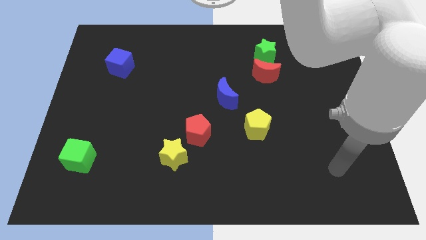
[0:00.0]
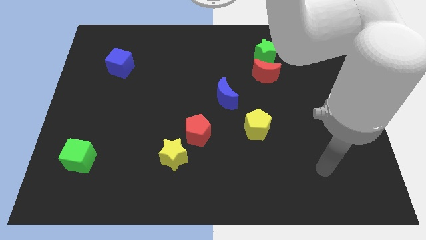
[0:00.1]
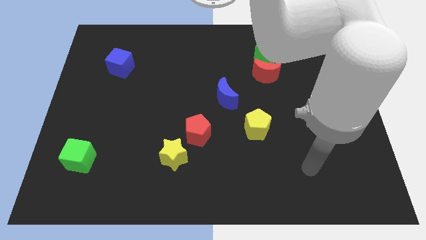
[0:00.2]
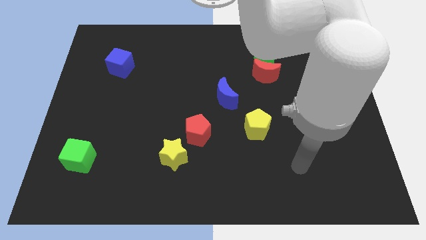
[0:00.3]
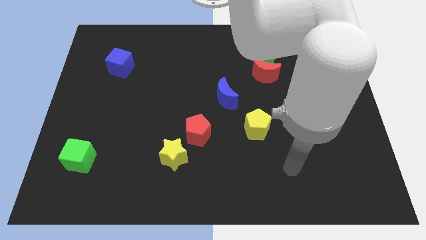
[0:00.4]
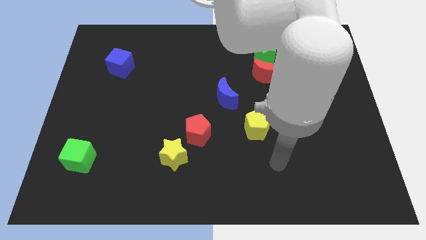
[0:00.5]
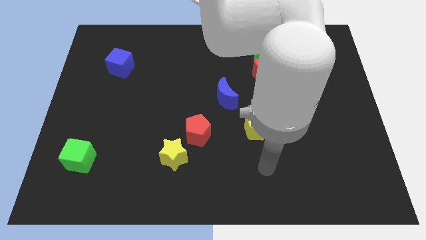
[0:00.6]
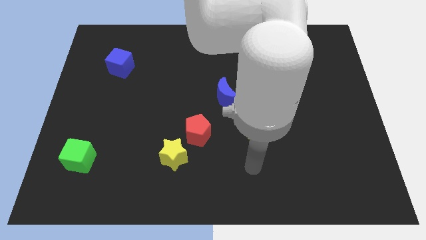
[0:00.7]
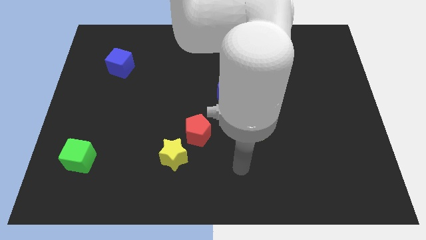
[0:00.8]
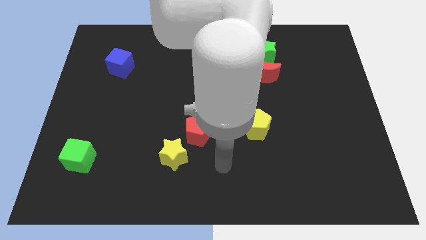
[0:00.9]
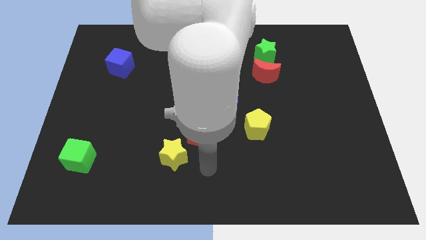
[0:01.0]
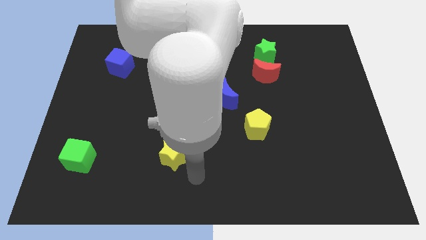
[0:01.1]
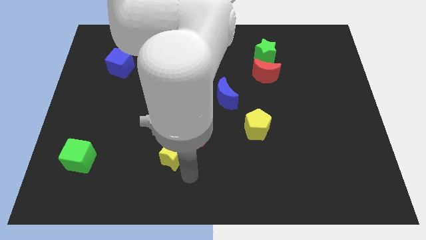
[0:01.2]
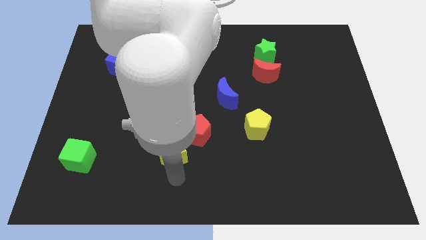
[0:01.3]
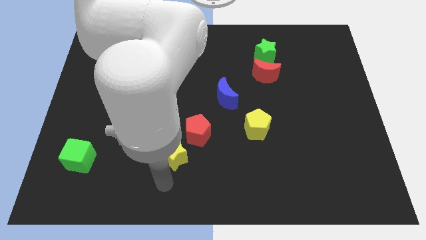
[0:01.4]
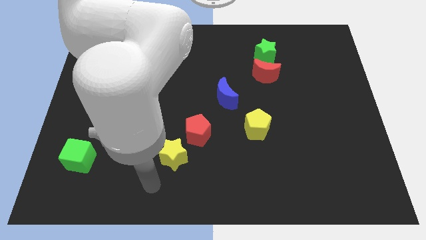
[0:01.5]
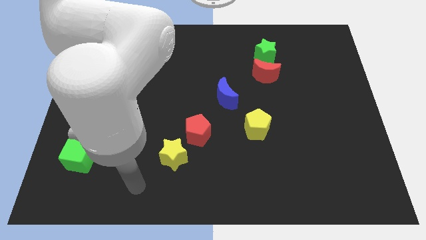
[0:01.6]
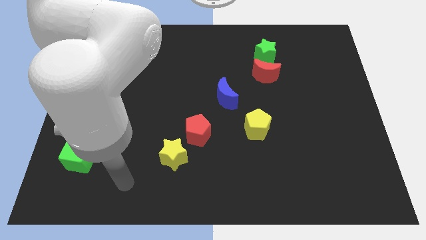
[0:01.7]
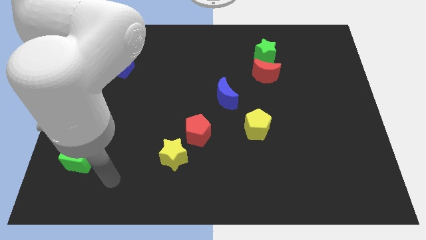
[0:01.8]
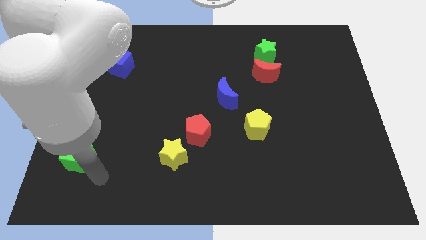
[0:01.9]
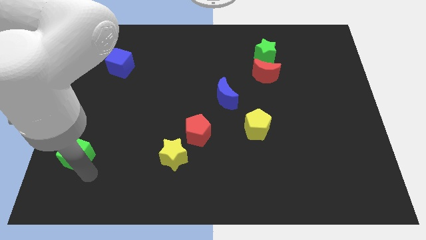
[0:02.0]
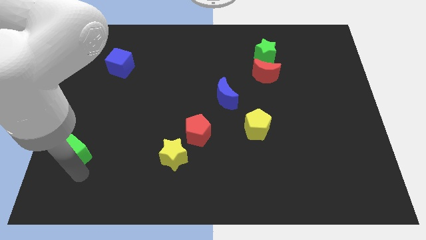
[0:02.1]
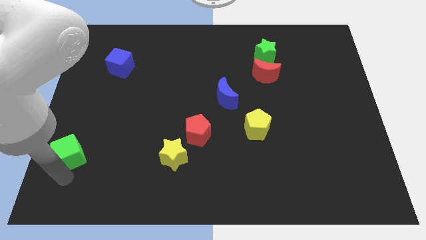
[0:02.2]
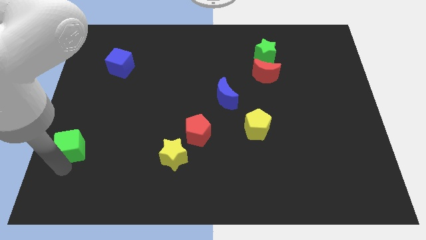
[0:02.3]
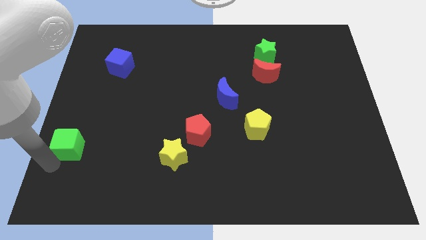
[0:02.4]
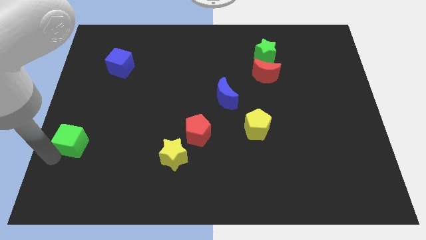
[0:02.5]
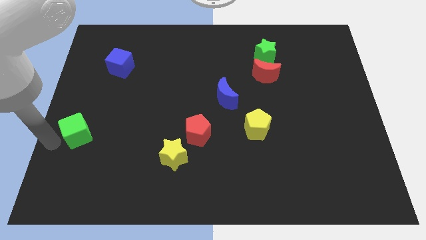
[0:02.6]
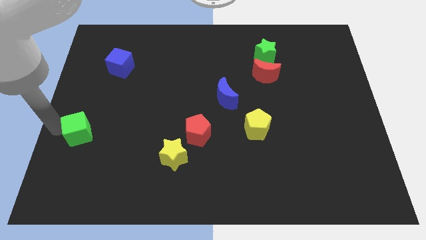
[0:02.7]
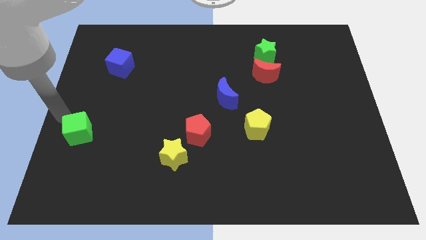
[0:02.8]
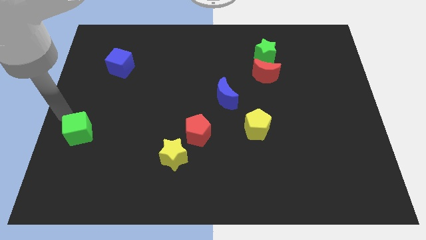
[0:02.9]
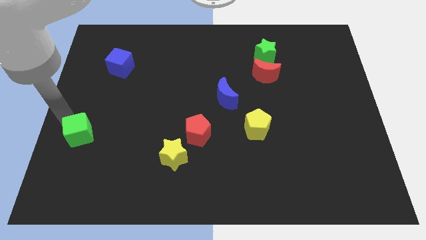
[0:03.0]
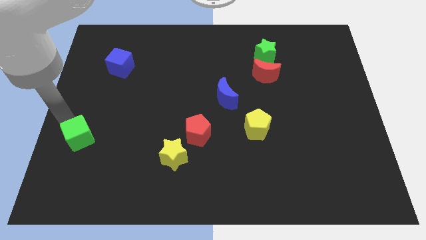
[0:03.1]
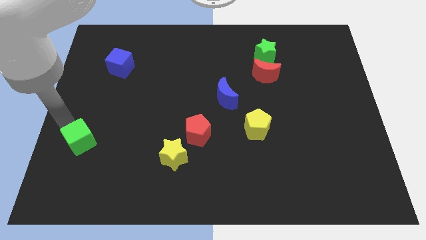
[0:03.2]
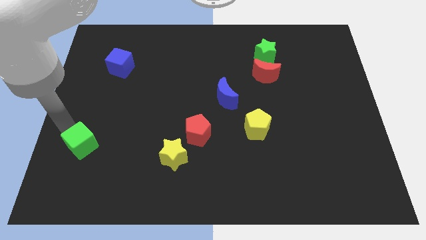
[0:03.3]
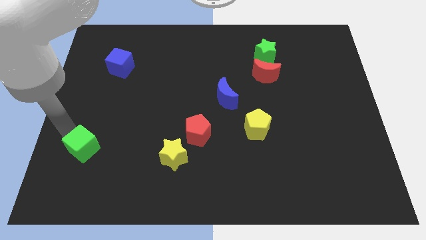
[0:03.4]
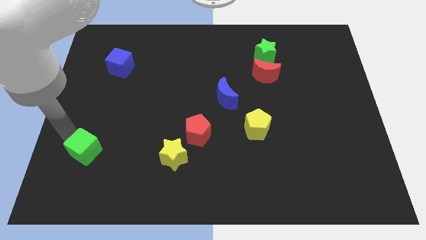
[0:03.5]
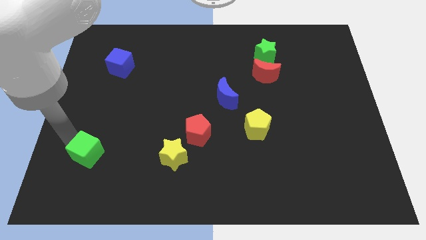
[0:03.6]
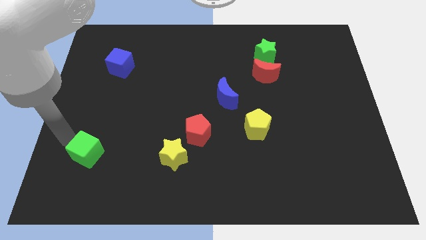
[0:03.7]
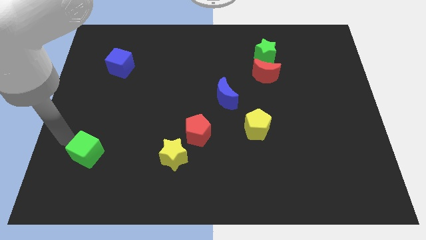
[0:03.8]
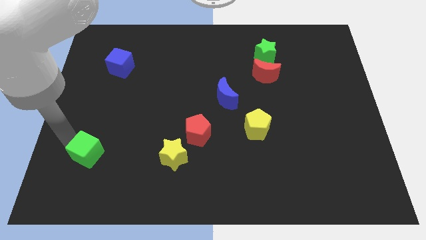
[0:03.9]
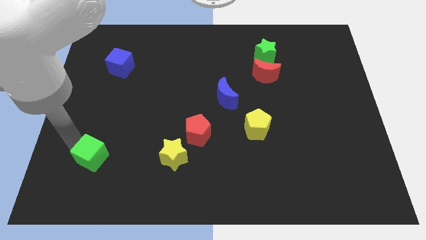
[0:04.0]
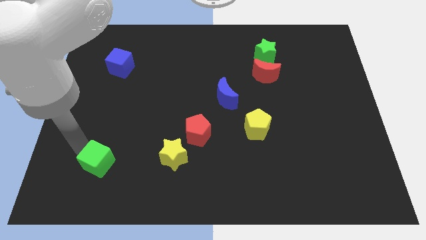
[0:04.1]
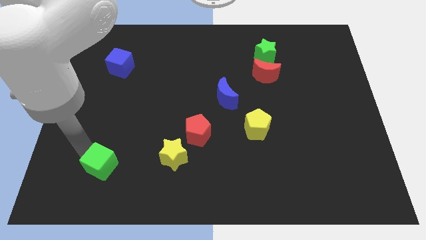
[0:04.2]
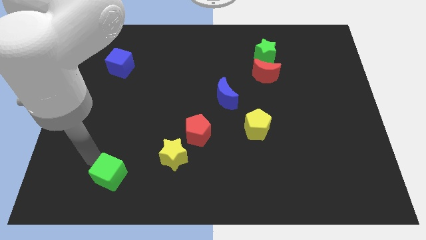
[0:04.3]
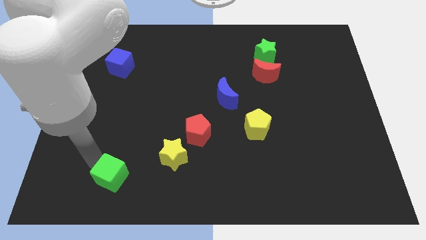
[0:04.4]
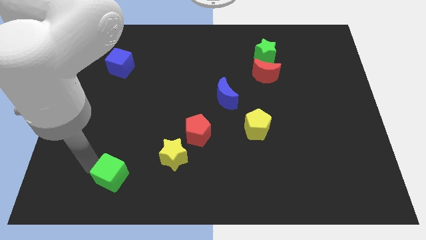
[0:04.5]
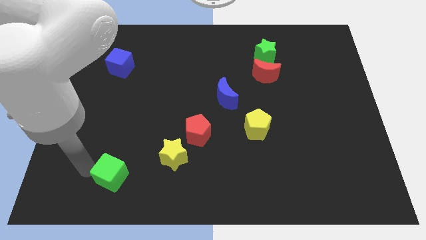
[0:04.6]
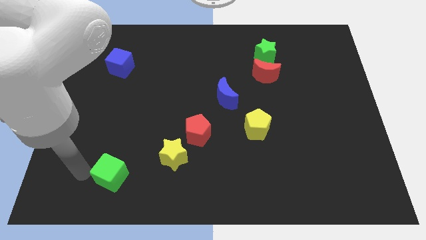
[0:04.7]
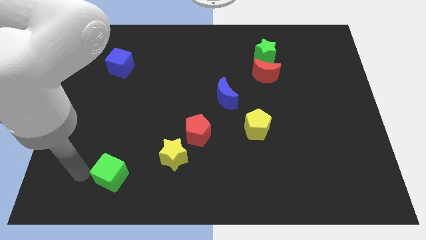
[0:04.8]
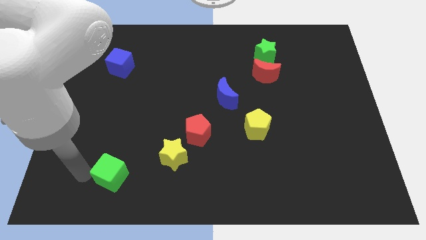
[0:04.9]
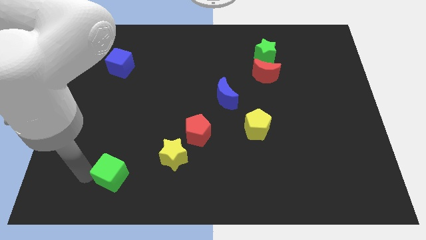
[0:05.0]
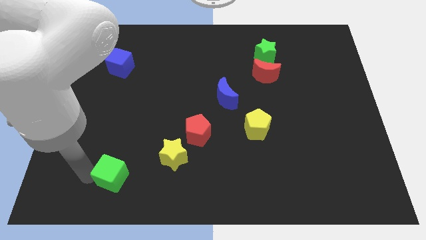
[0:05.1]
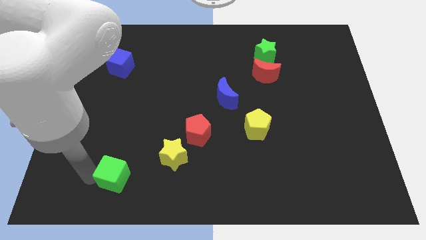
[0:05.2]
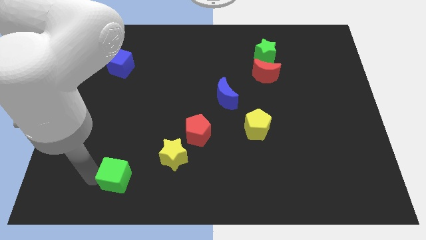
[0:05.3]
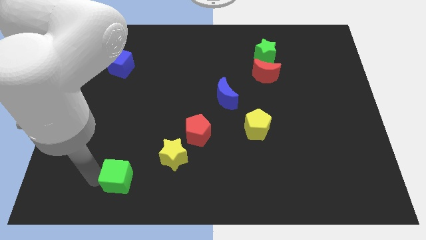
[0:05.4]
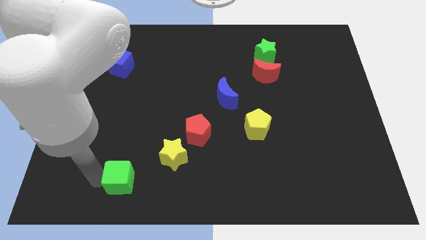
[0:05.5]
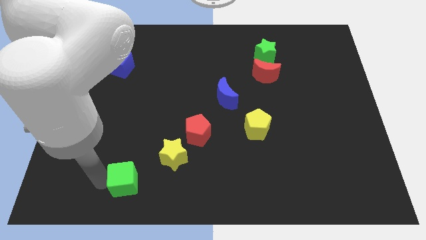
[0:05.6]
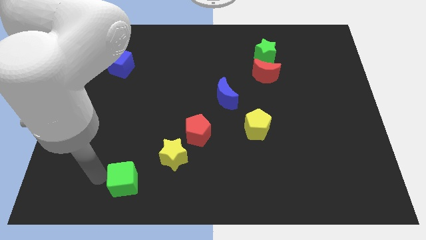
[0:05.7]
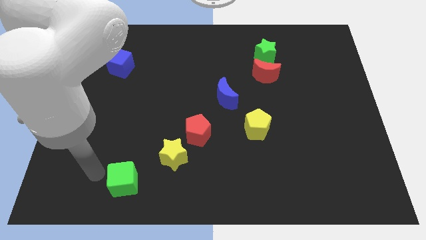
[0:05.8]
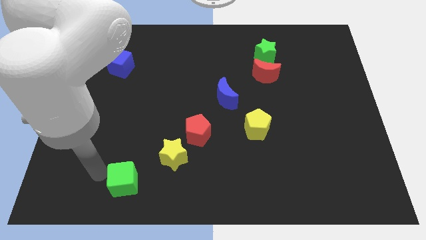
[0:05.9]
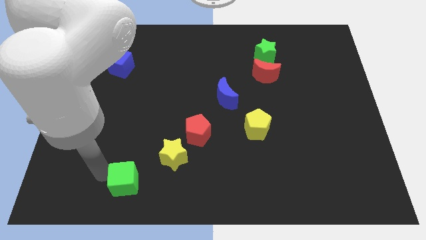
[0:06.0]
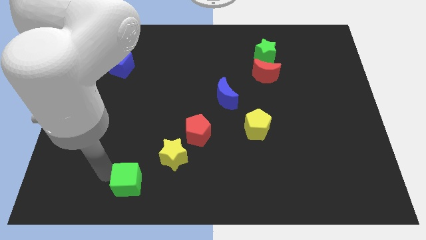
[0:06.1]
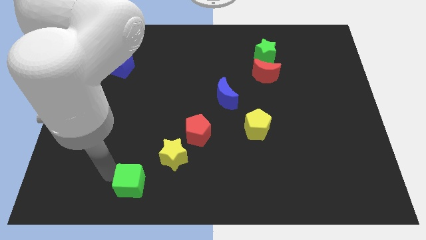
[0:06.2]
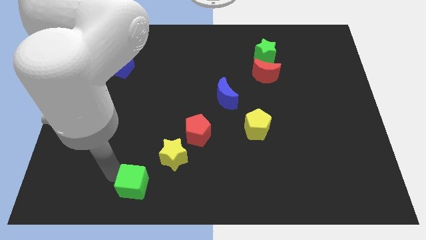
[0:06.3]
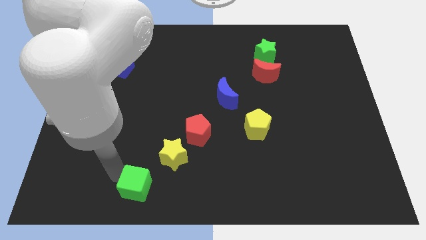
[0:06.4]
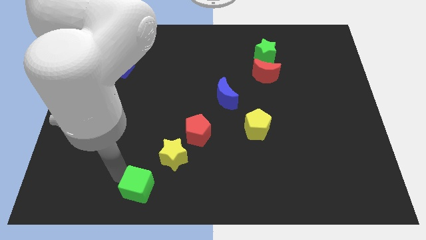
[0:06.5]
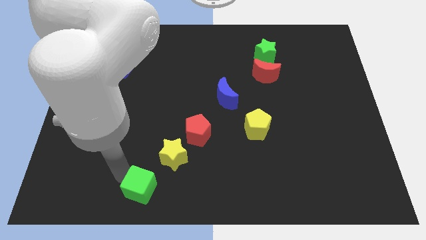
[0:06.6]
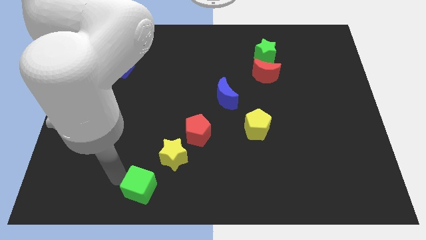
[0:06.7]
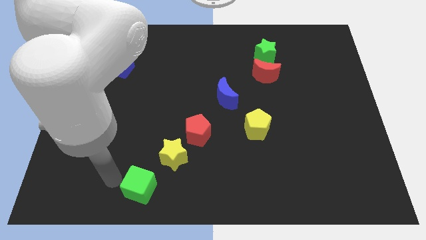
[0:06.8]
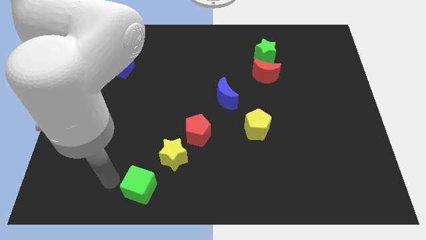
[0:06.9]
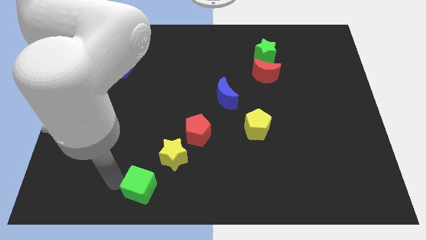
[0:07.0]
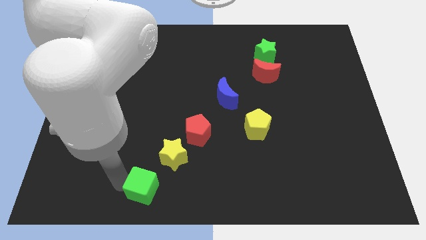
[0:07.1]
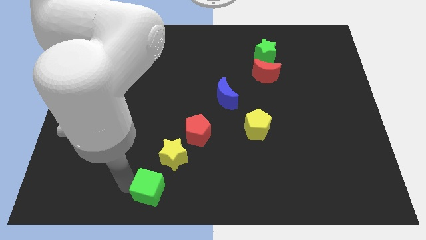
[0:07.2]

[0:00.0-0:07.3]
move the green cube to the bottom side

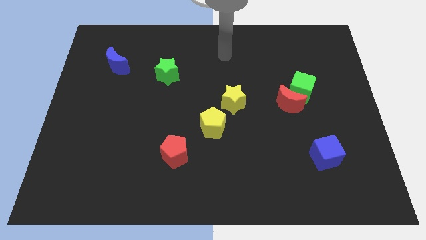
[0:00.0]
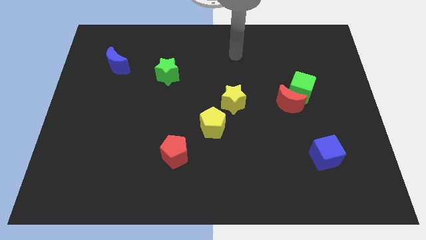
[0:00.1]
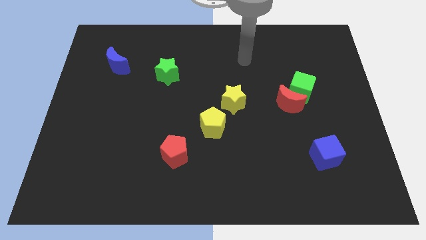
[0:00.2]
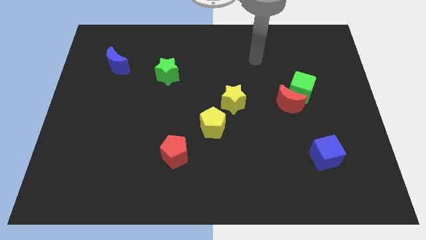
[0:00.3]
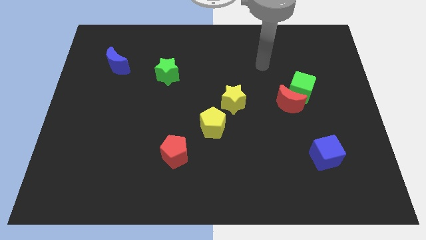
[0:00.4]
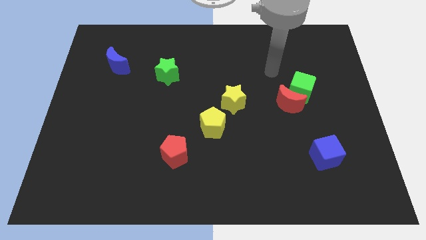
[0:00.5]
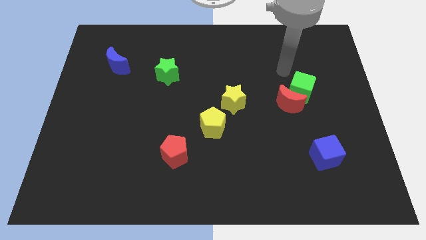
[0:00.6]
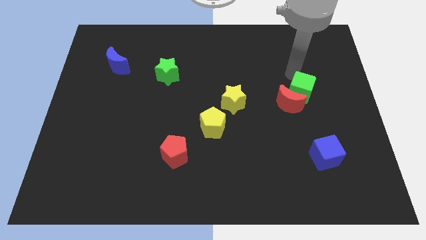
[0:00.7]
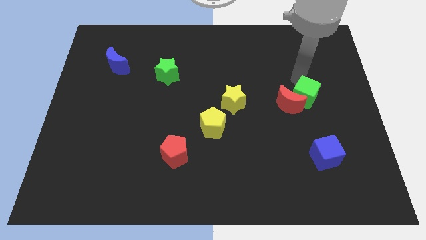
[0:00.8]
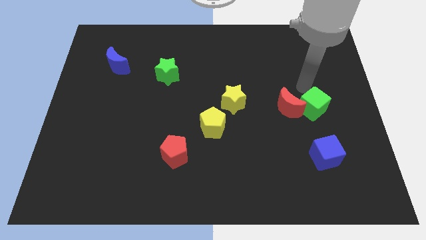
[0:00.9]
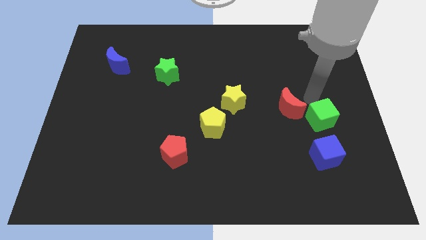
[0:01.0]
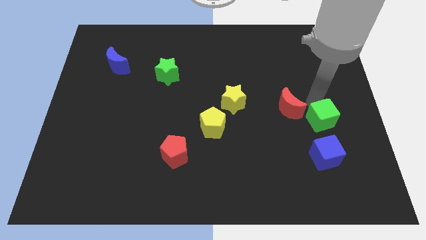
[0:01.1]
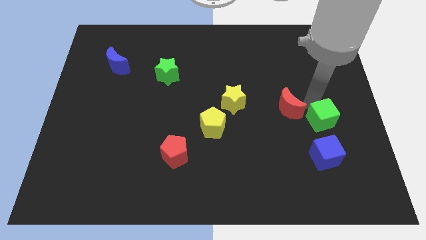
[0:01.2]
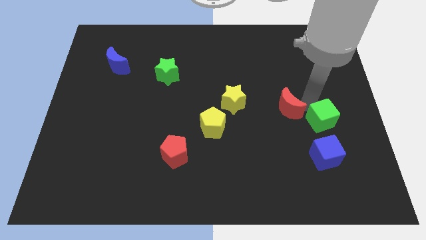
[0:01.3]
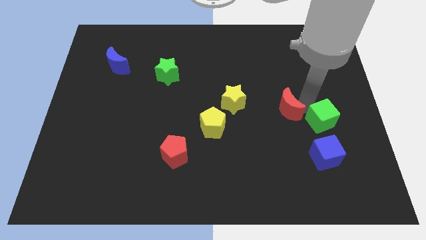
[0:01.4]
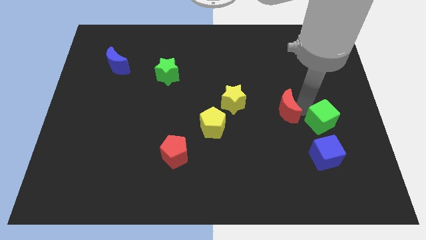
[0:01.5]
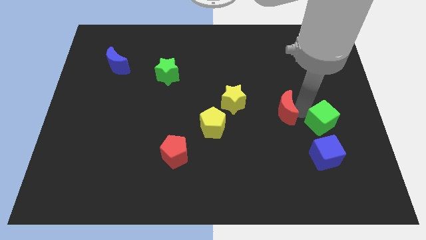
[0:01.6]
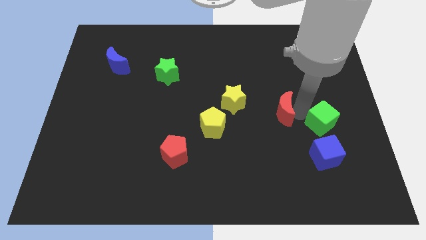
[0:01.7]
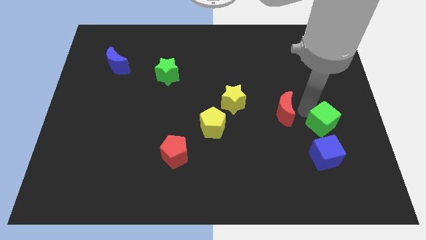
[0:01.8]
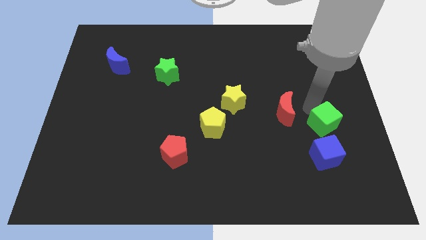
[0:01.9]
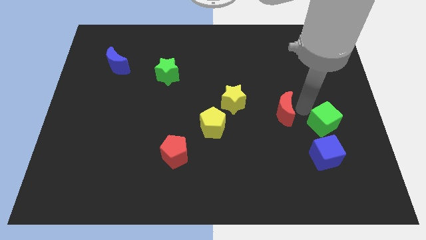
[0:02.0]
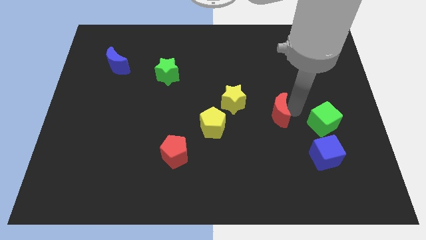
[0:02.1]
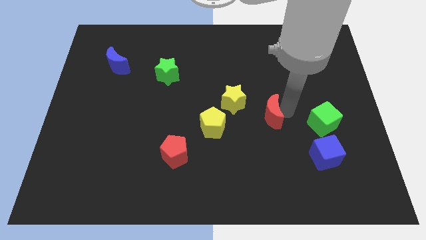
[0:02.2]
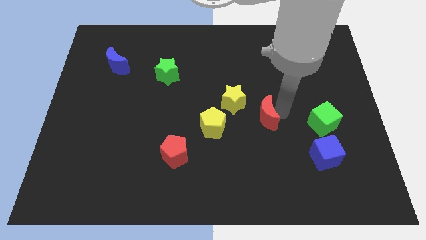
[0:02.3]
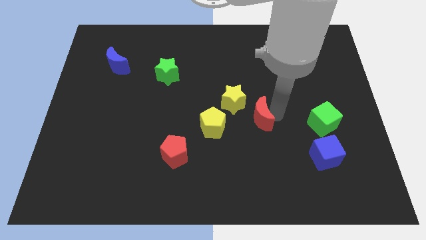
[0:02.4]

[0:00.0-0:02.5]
push the red moon to the middle of the board
